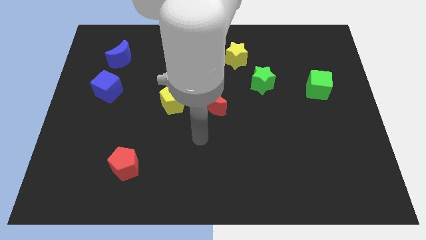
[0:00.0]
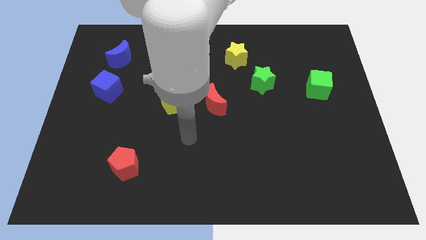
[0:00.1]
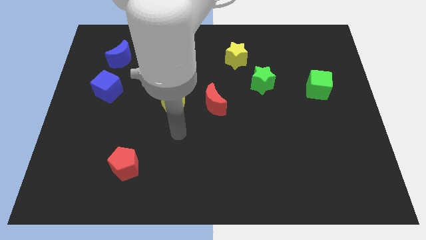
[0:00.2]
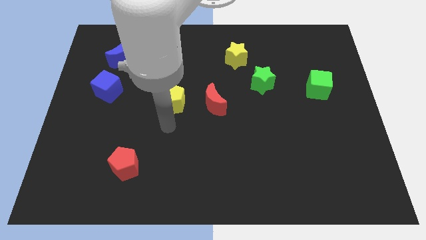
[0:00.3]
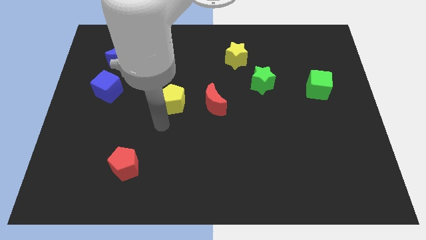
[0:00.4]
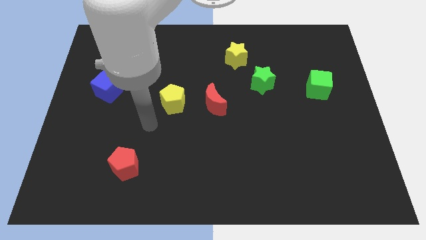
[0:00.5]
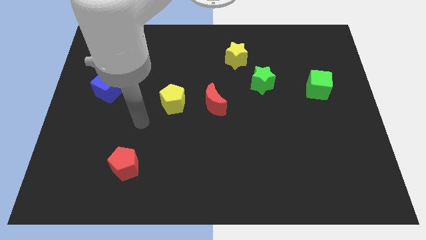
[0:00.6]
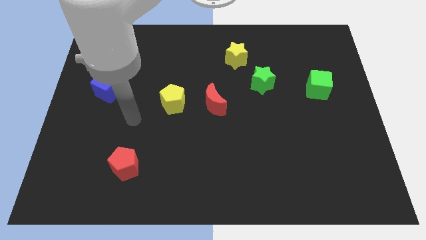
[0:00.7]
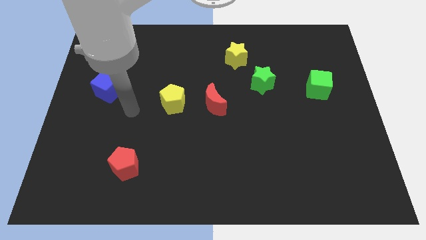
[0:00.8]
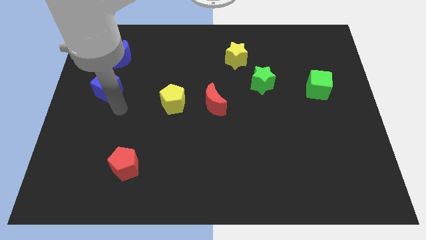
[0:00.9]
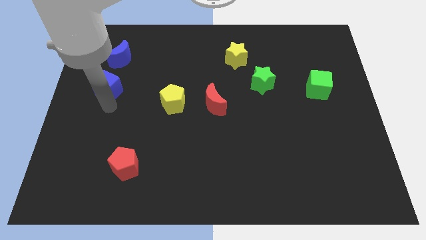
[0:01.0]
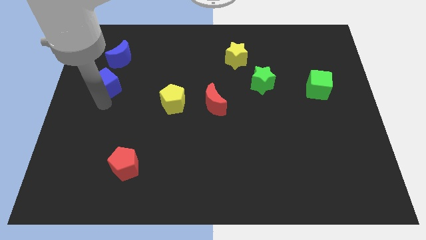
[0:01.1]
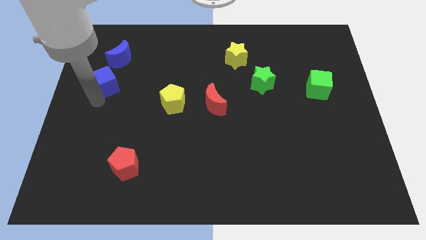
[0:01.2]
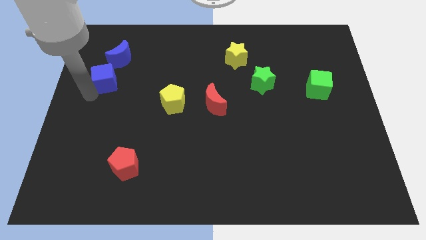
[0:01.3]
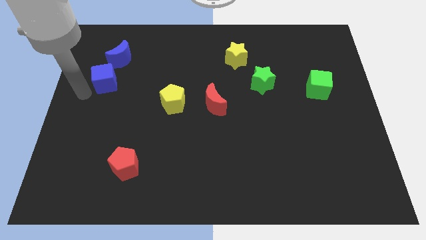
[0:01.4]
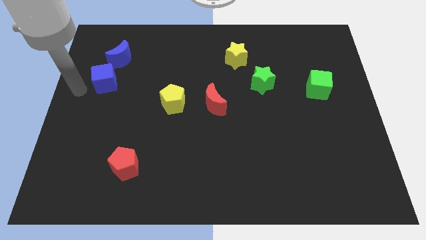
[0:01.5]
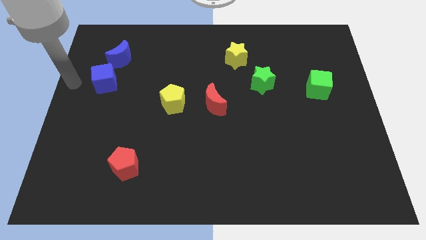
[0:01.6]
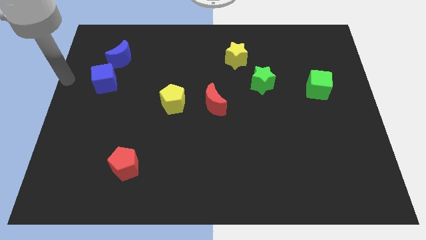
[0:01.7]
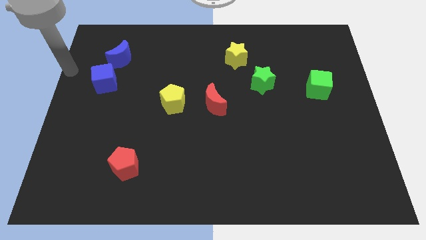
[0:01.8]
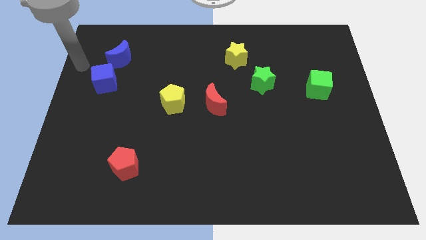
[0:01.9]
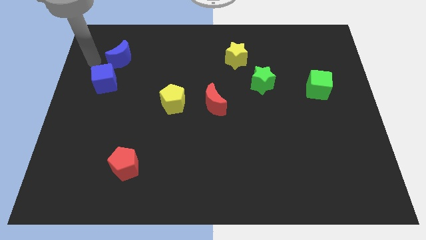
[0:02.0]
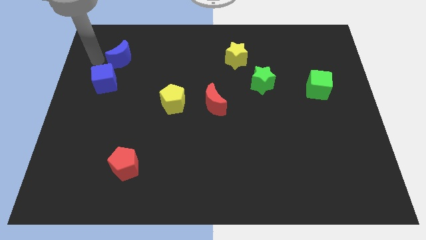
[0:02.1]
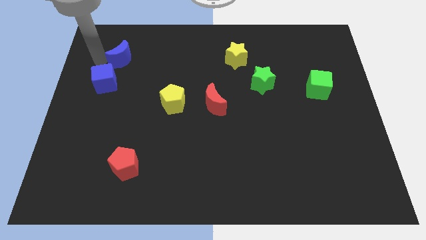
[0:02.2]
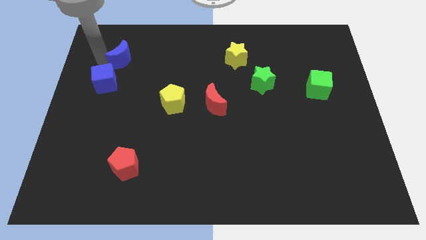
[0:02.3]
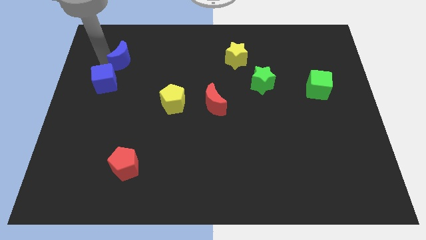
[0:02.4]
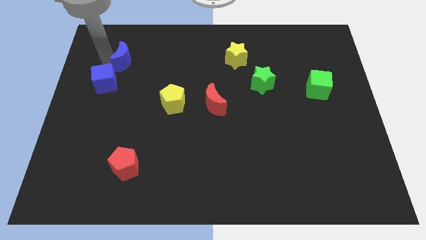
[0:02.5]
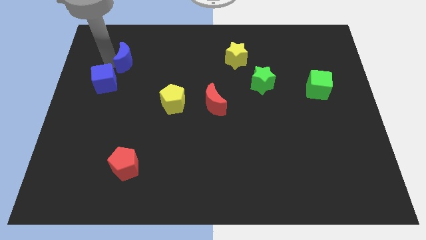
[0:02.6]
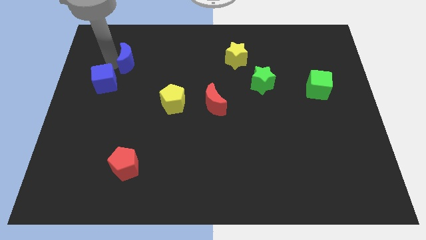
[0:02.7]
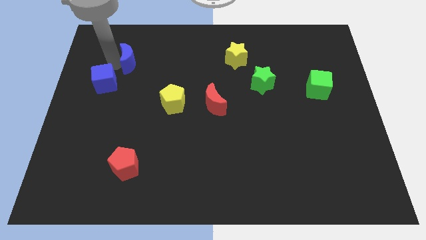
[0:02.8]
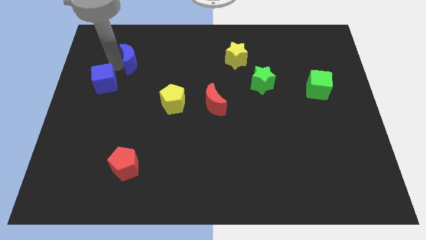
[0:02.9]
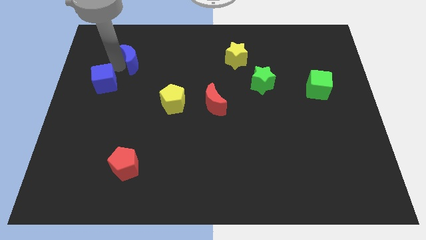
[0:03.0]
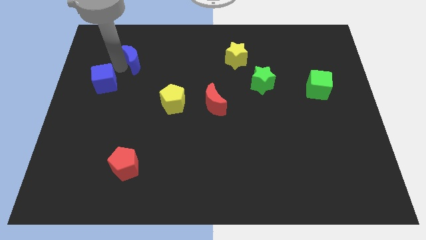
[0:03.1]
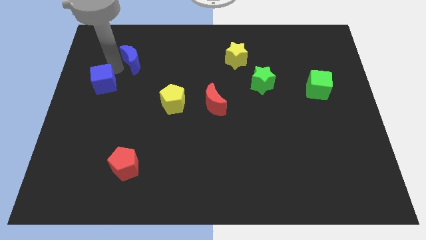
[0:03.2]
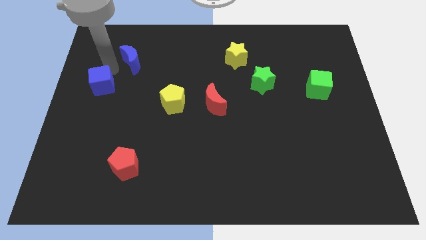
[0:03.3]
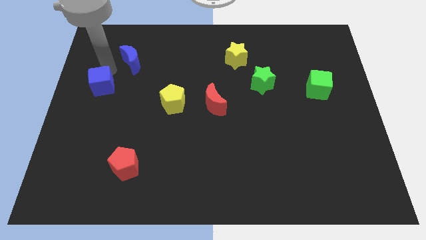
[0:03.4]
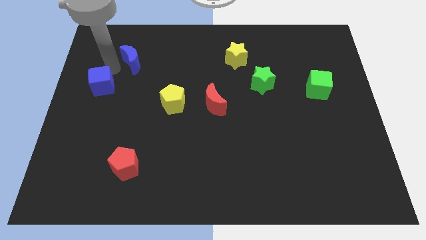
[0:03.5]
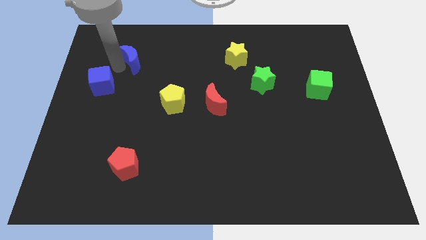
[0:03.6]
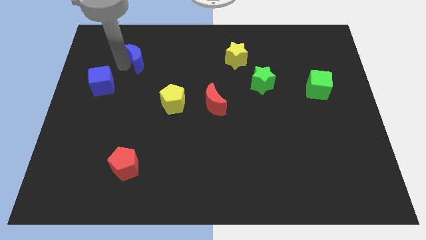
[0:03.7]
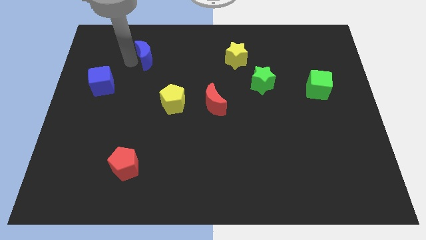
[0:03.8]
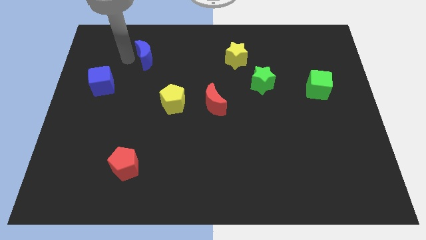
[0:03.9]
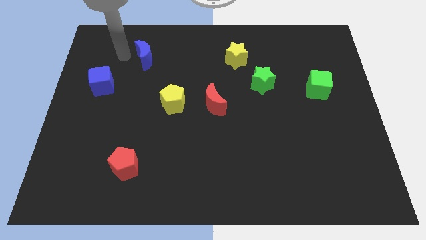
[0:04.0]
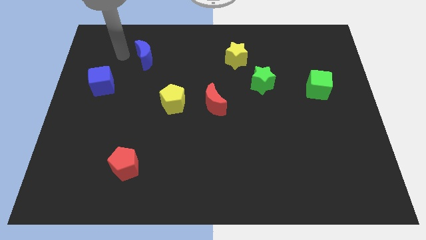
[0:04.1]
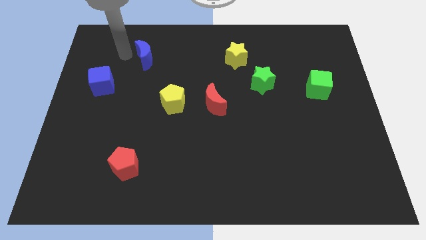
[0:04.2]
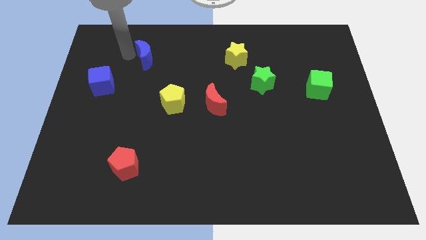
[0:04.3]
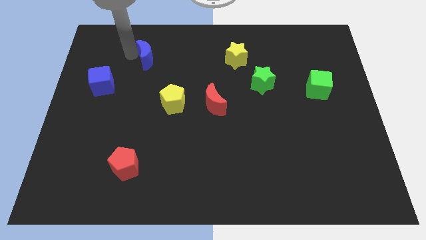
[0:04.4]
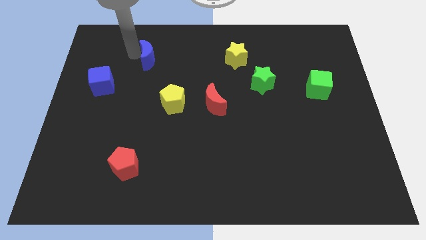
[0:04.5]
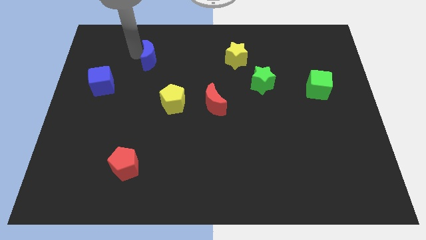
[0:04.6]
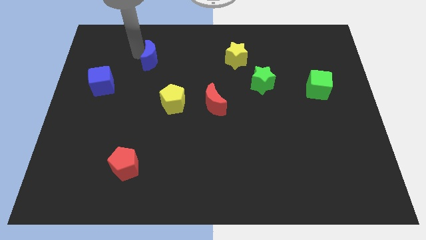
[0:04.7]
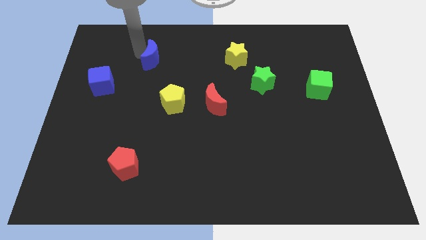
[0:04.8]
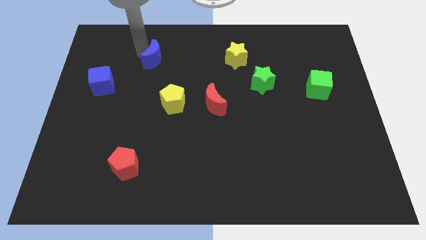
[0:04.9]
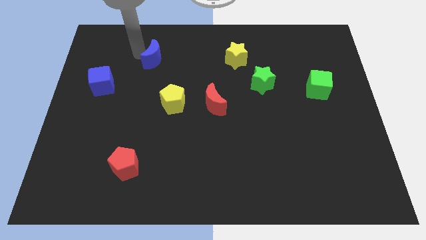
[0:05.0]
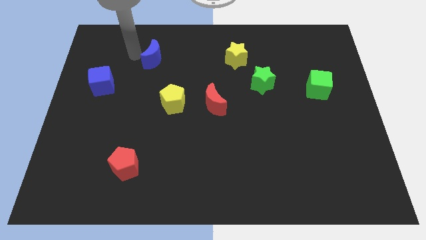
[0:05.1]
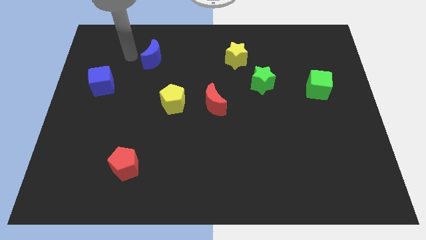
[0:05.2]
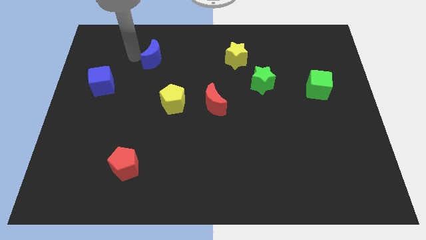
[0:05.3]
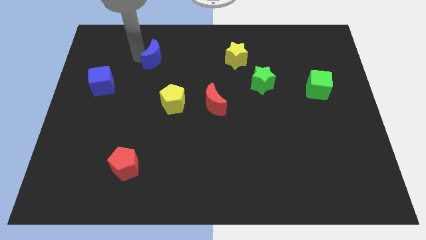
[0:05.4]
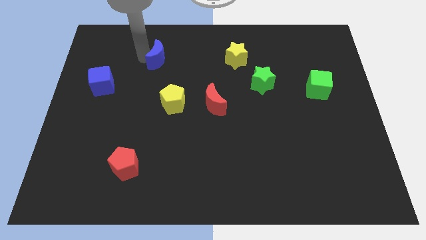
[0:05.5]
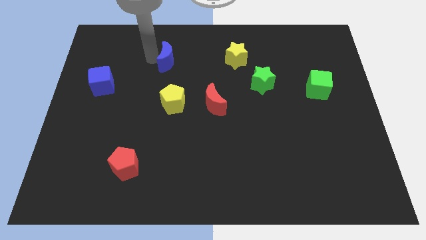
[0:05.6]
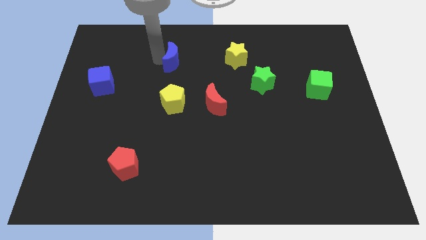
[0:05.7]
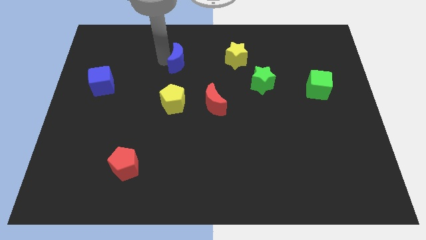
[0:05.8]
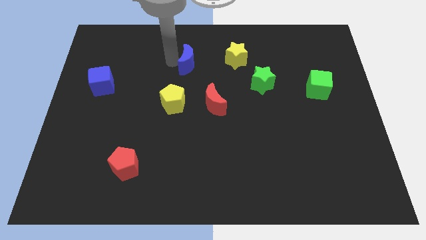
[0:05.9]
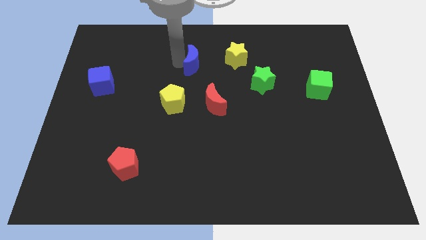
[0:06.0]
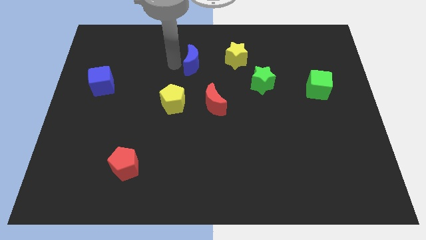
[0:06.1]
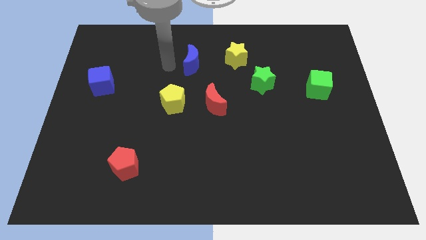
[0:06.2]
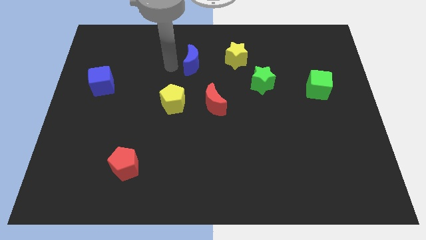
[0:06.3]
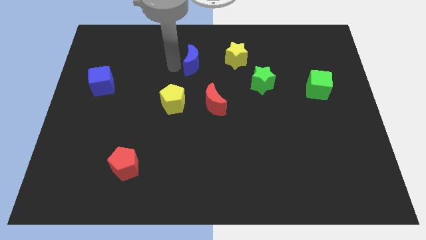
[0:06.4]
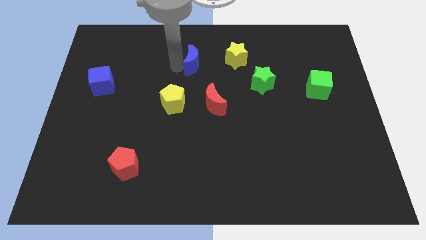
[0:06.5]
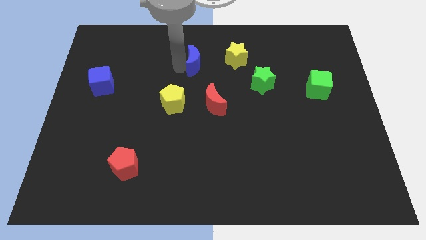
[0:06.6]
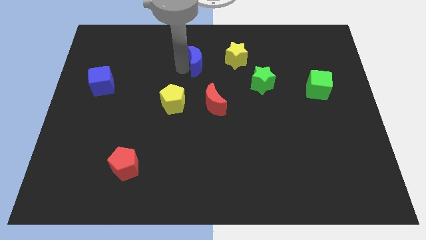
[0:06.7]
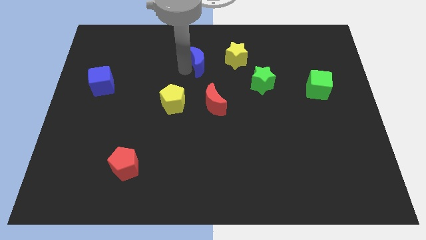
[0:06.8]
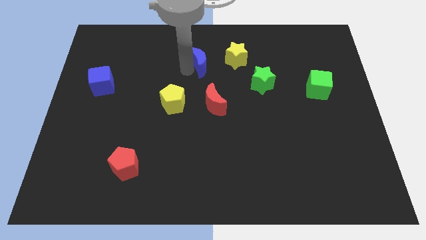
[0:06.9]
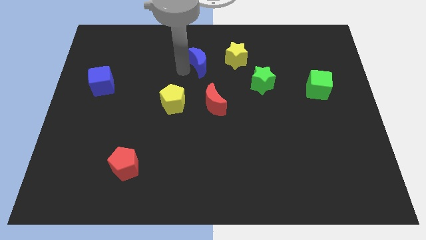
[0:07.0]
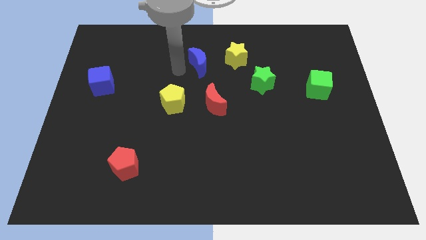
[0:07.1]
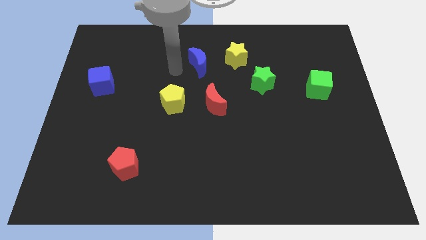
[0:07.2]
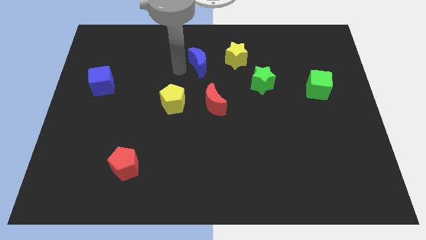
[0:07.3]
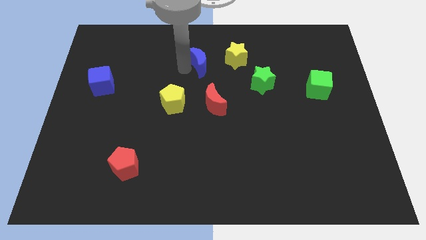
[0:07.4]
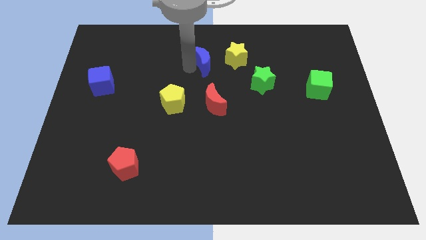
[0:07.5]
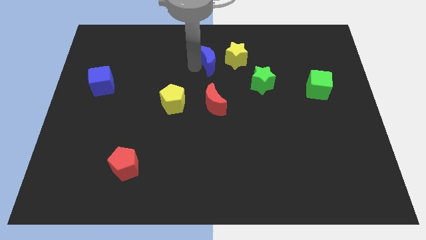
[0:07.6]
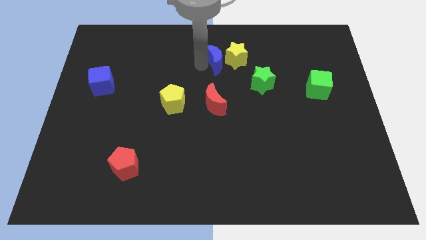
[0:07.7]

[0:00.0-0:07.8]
put the blue moon close to the yellow star

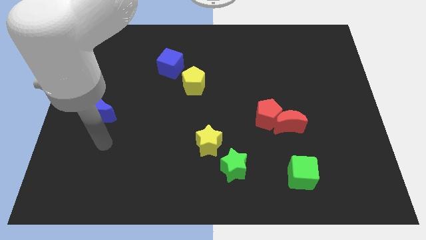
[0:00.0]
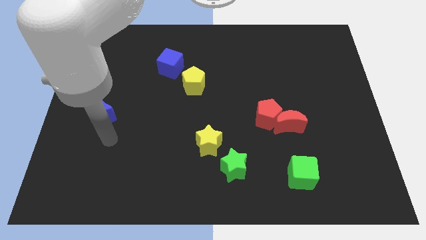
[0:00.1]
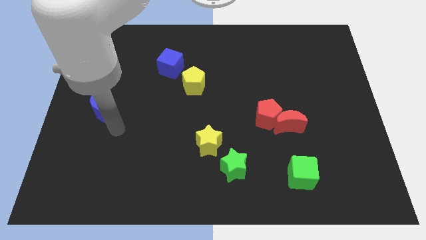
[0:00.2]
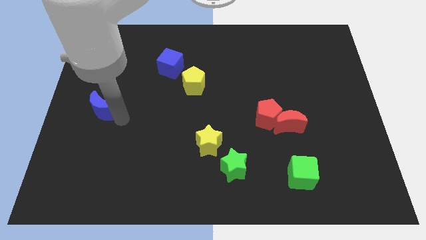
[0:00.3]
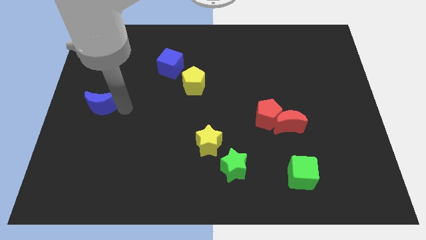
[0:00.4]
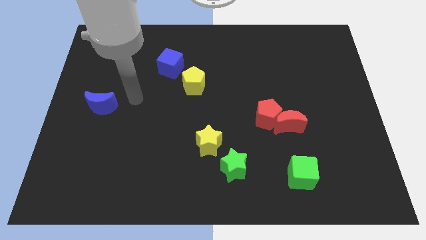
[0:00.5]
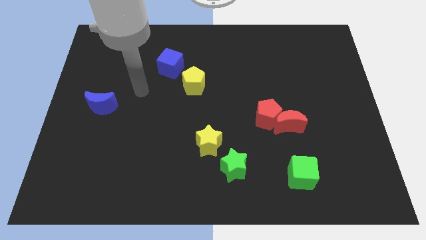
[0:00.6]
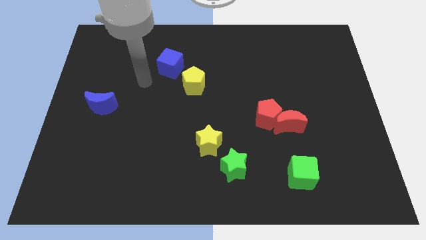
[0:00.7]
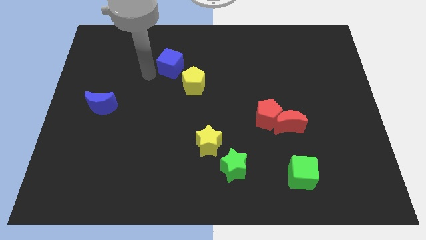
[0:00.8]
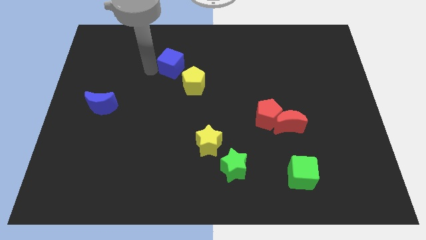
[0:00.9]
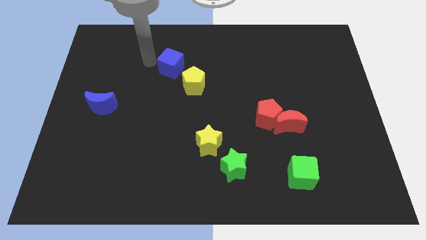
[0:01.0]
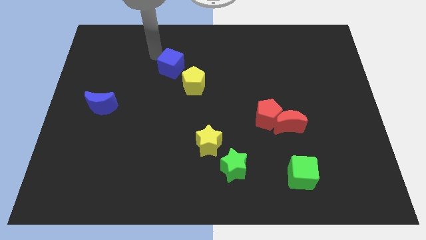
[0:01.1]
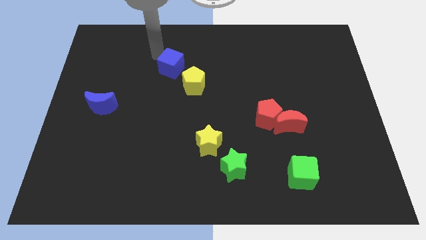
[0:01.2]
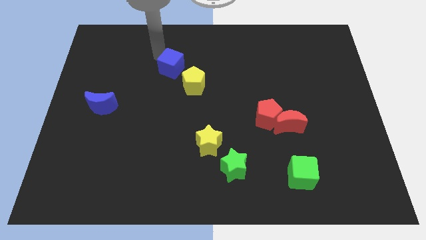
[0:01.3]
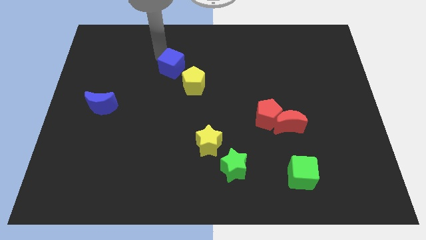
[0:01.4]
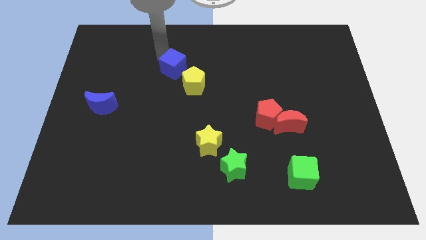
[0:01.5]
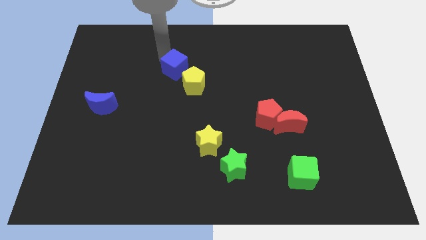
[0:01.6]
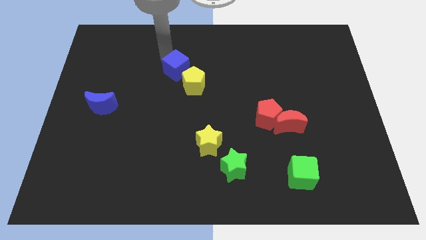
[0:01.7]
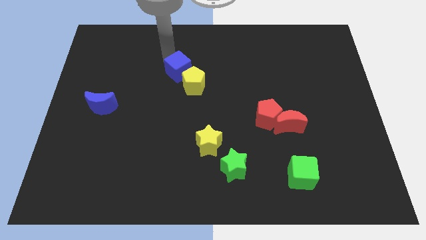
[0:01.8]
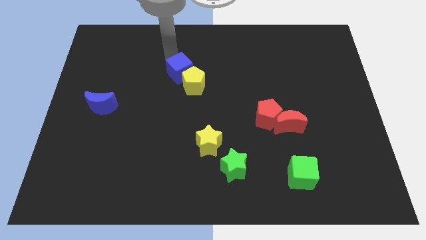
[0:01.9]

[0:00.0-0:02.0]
push the blue cube towards the yellow pentagon
